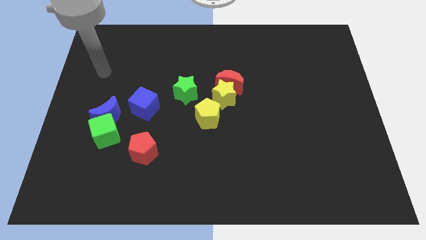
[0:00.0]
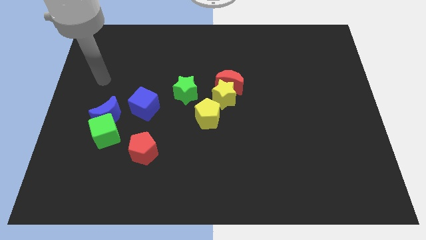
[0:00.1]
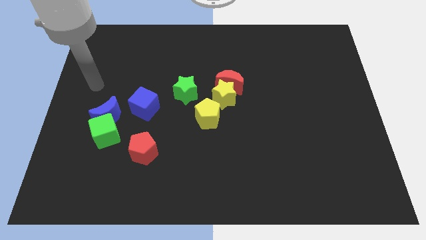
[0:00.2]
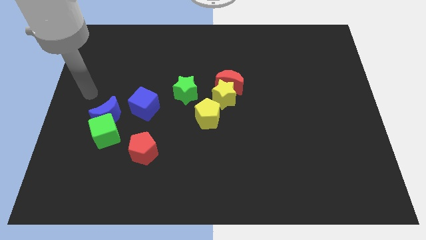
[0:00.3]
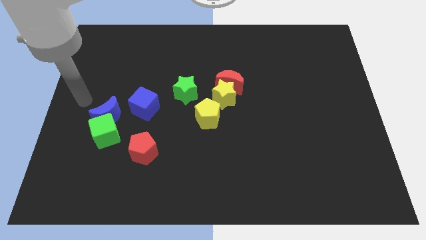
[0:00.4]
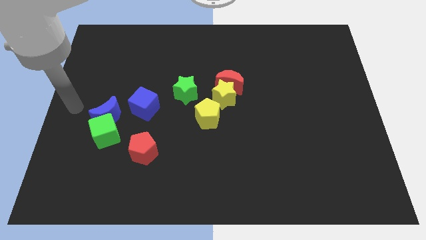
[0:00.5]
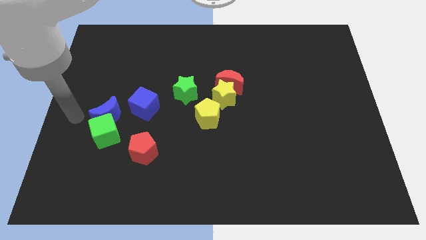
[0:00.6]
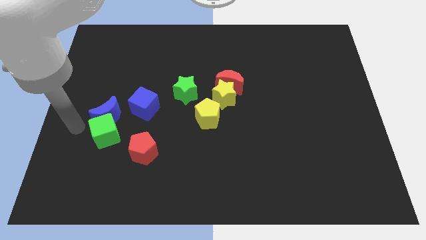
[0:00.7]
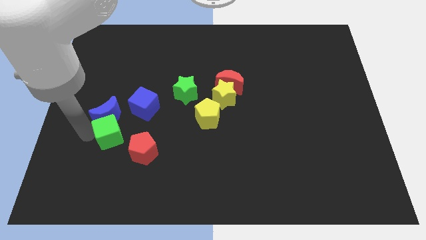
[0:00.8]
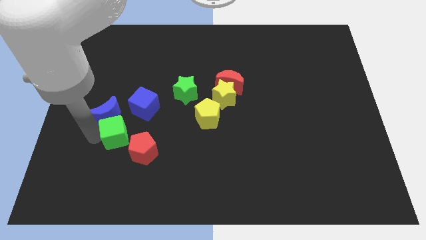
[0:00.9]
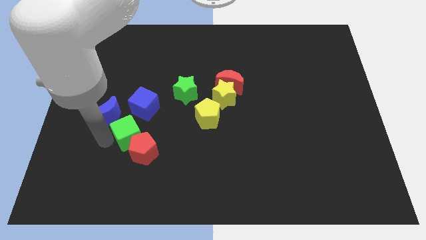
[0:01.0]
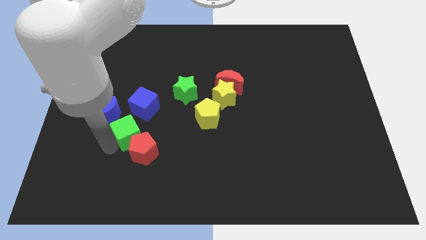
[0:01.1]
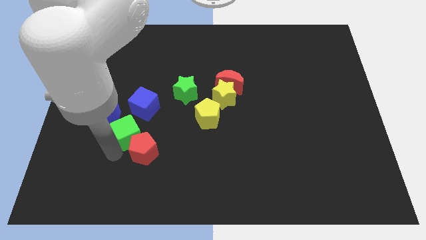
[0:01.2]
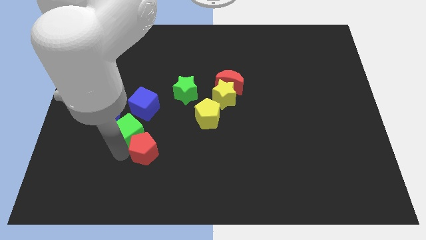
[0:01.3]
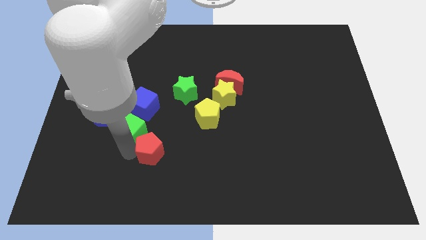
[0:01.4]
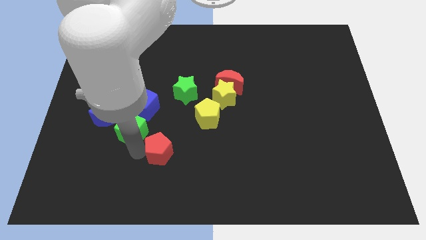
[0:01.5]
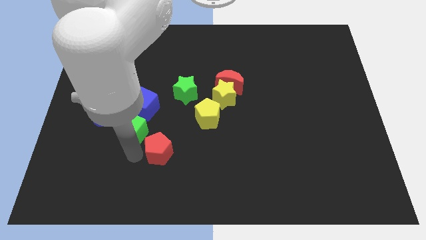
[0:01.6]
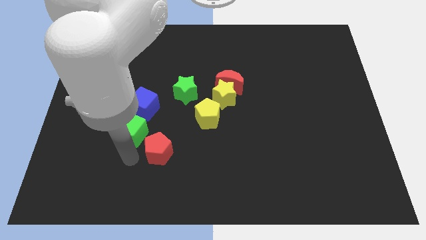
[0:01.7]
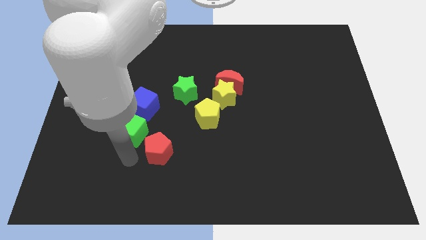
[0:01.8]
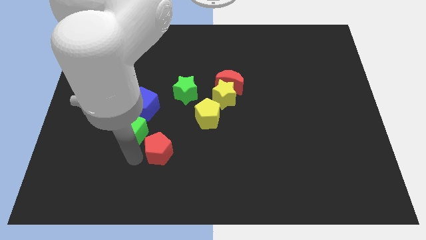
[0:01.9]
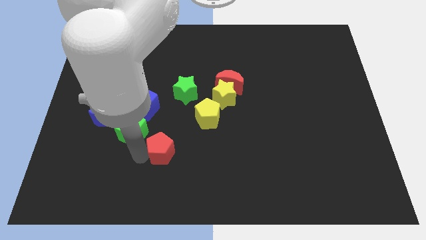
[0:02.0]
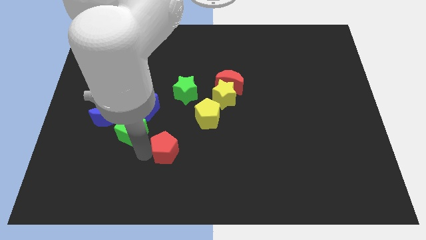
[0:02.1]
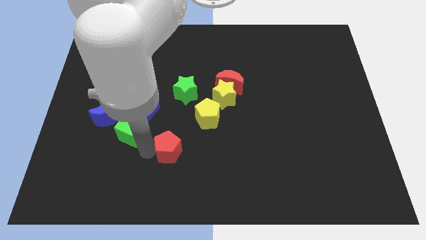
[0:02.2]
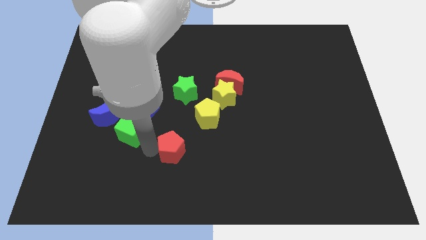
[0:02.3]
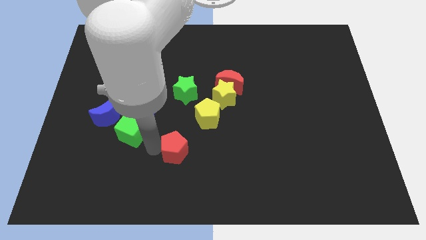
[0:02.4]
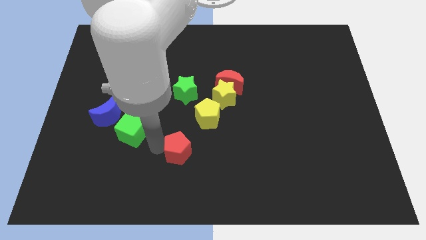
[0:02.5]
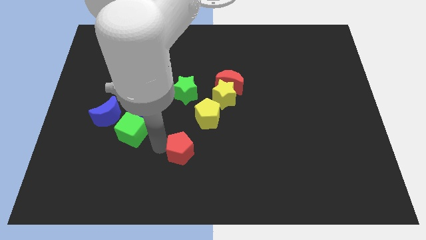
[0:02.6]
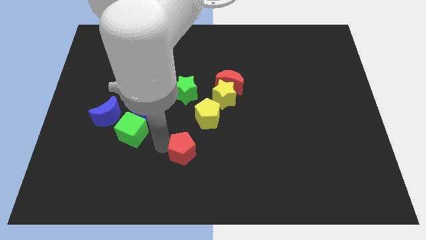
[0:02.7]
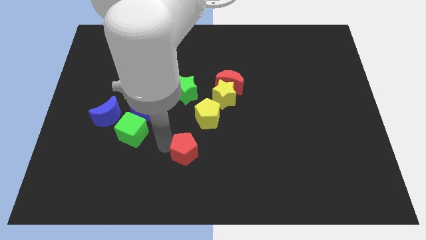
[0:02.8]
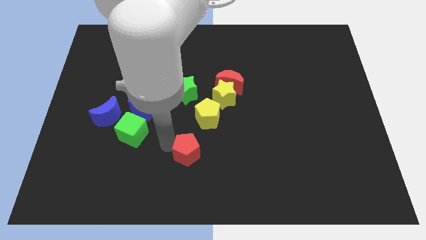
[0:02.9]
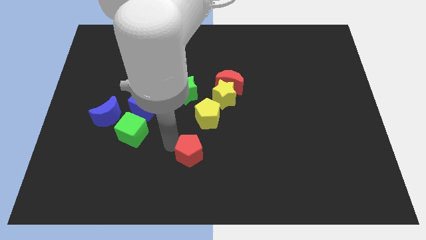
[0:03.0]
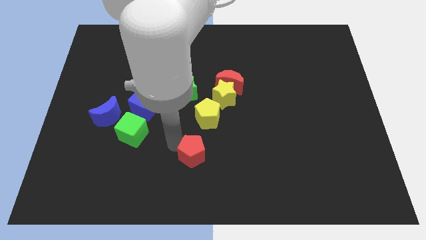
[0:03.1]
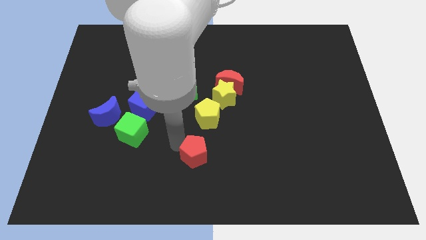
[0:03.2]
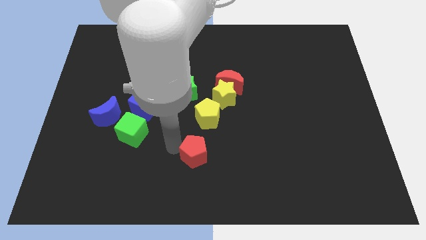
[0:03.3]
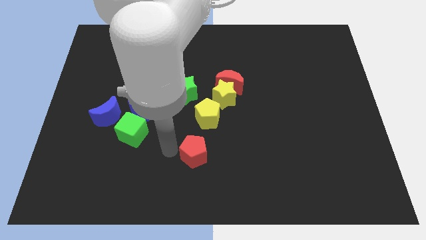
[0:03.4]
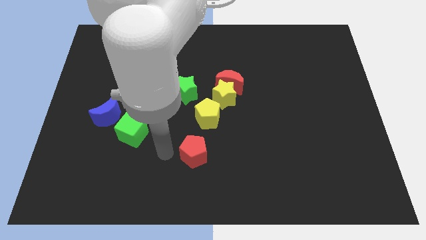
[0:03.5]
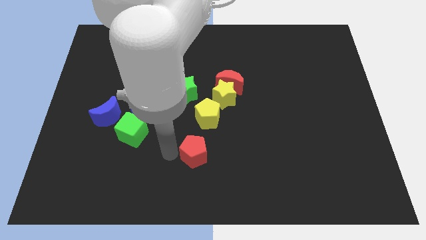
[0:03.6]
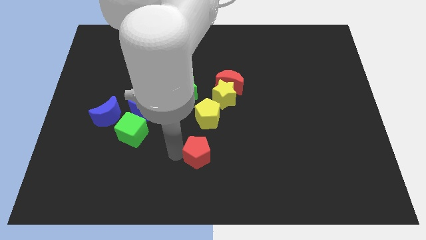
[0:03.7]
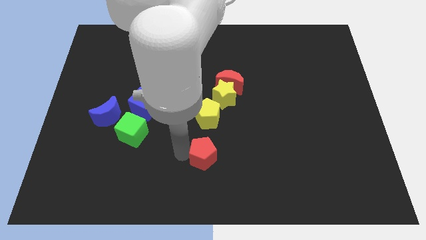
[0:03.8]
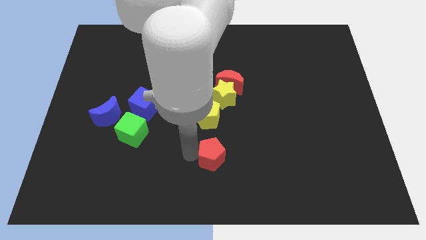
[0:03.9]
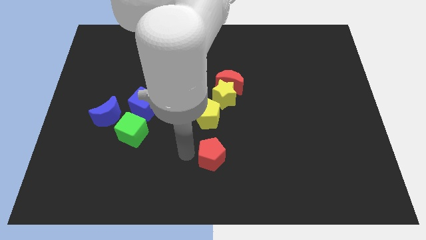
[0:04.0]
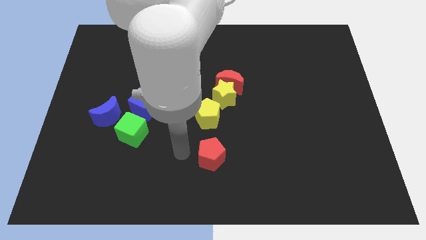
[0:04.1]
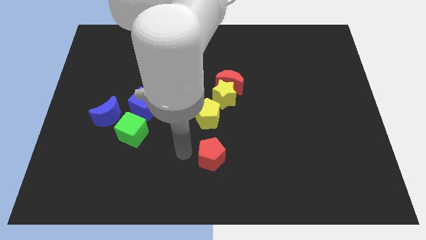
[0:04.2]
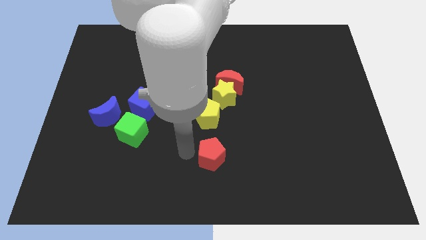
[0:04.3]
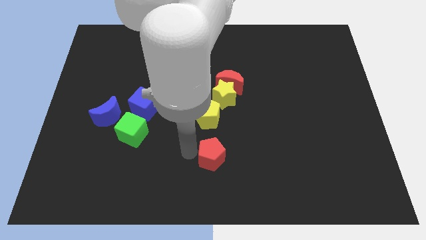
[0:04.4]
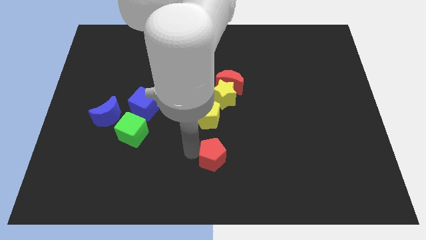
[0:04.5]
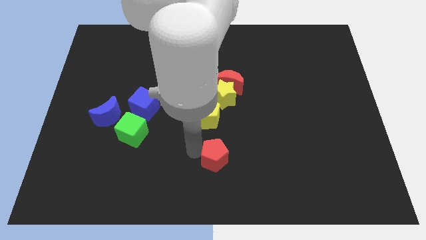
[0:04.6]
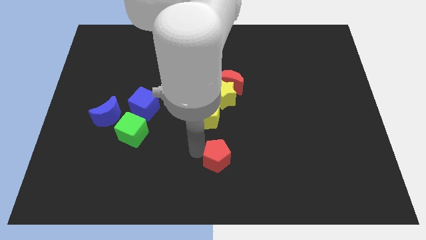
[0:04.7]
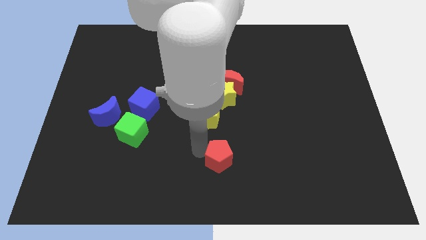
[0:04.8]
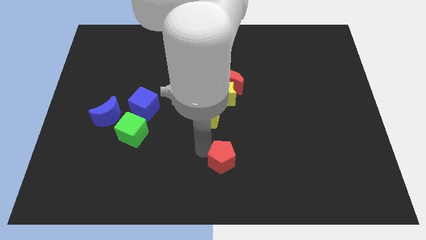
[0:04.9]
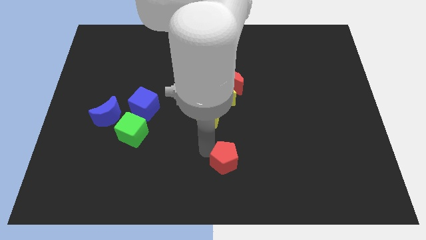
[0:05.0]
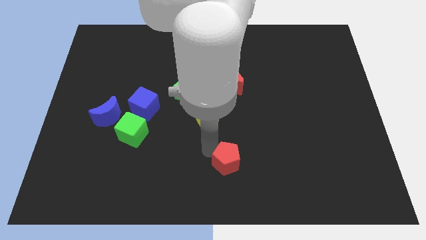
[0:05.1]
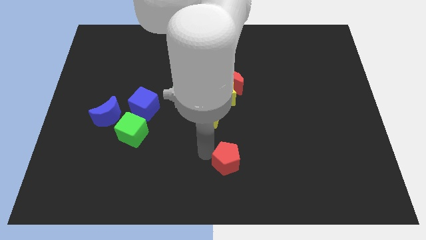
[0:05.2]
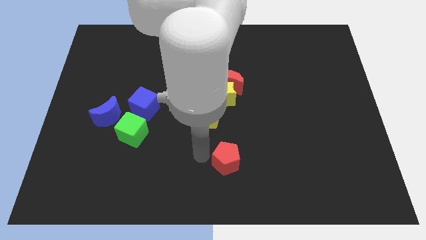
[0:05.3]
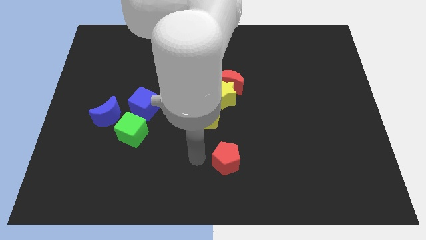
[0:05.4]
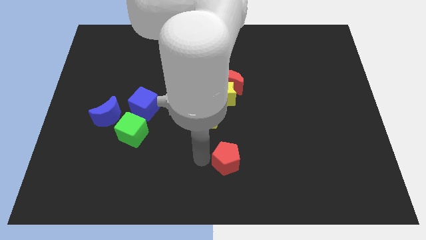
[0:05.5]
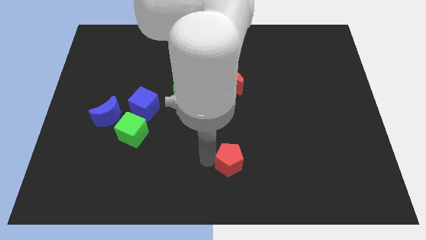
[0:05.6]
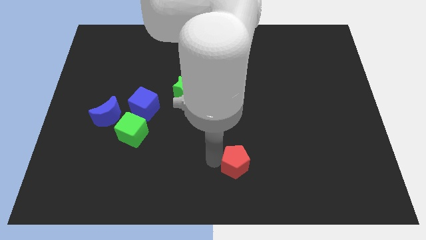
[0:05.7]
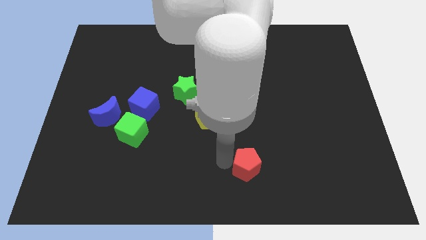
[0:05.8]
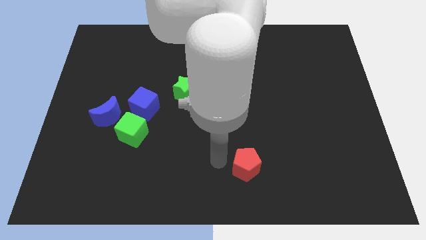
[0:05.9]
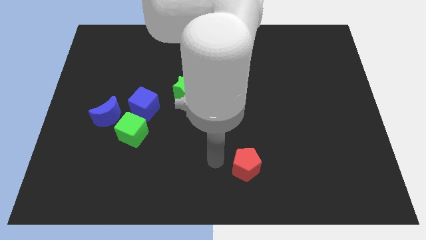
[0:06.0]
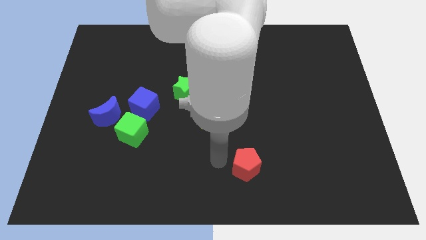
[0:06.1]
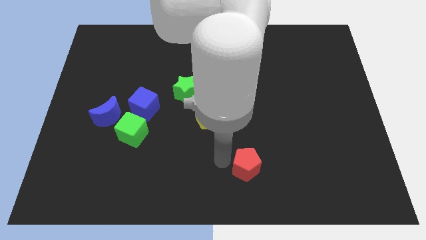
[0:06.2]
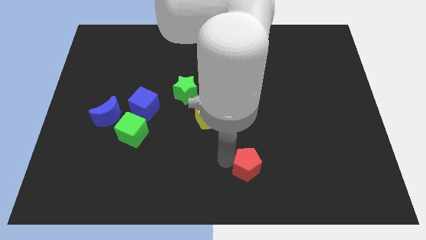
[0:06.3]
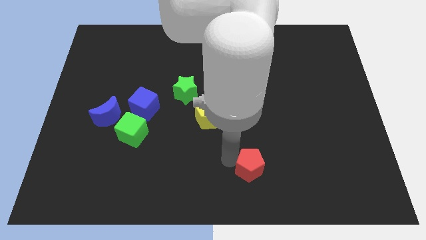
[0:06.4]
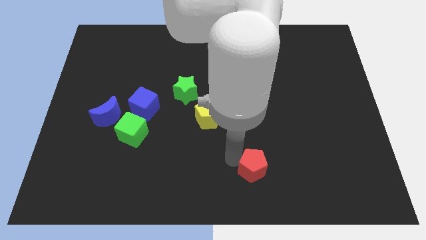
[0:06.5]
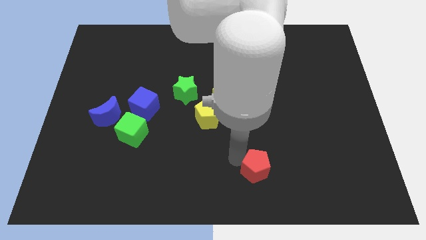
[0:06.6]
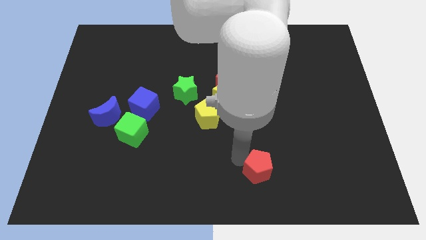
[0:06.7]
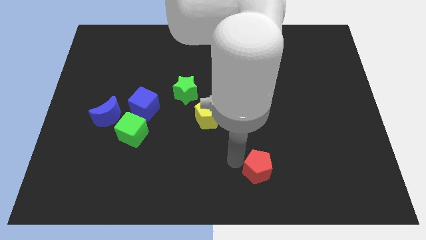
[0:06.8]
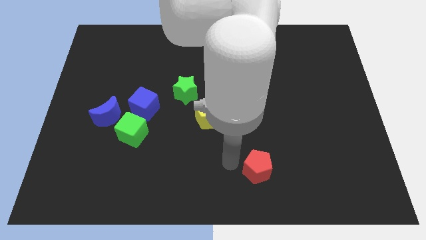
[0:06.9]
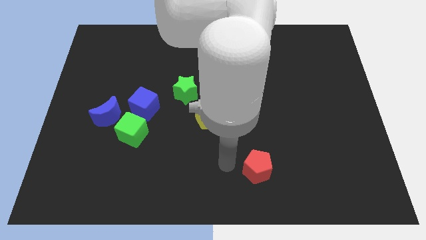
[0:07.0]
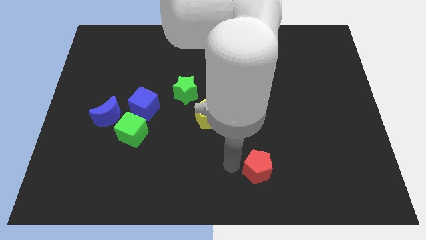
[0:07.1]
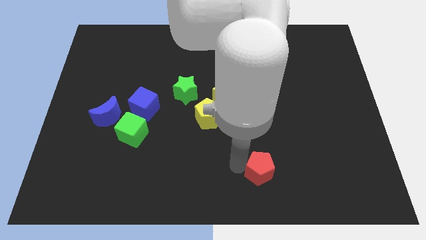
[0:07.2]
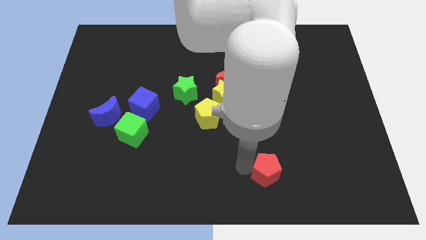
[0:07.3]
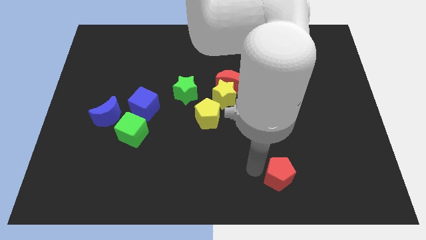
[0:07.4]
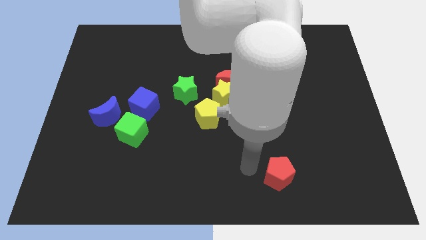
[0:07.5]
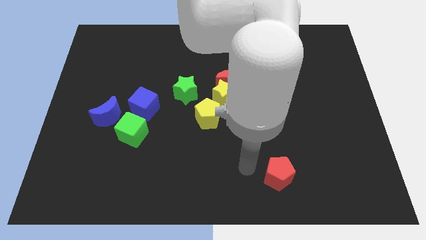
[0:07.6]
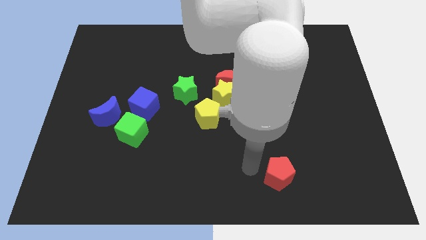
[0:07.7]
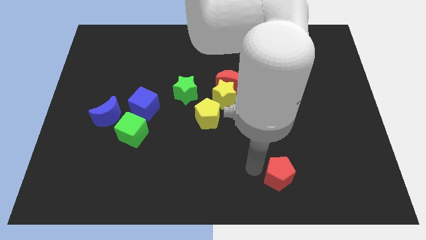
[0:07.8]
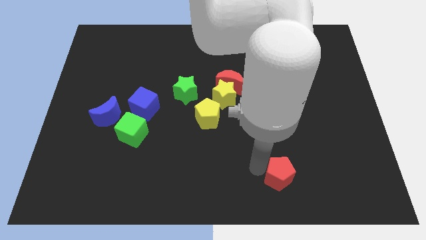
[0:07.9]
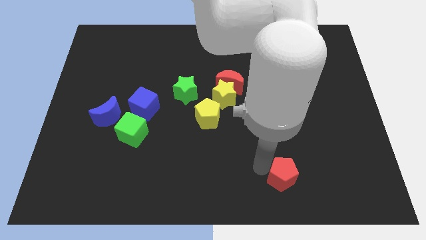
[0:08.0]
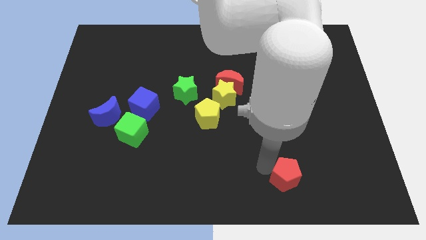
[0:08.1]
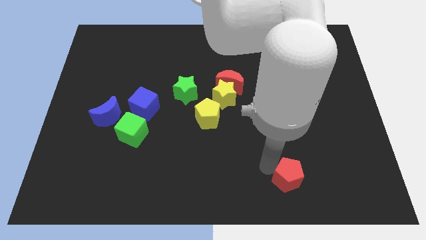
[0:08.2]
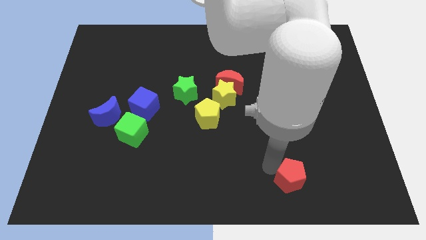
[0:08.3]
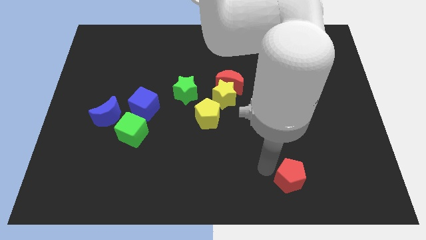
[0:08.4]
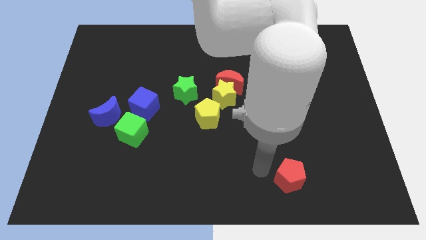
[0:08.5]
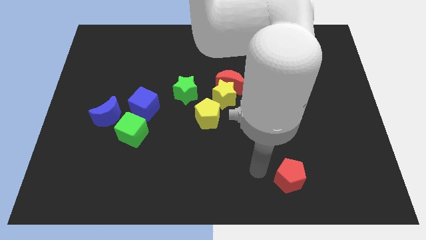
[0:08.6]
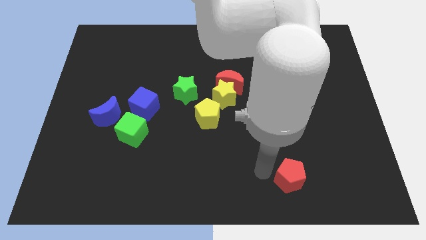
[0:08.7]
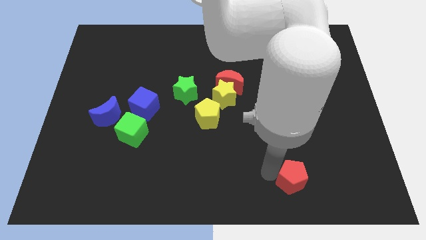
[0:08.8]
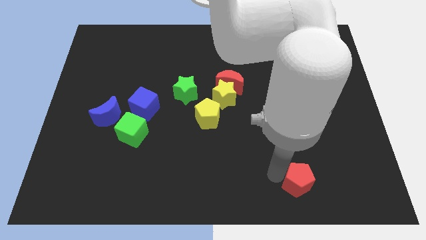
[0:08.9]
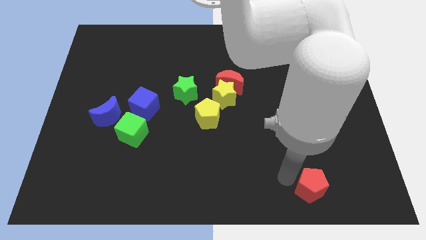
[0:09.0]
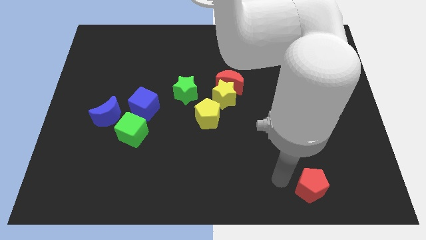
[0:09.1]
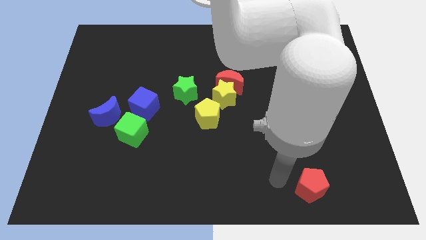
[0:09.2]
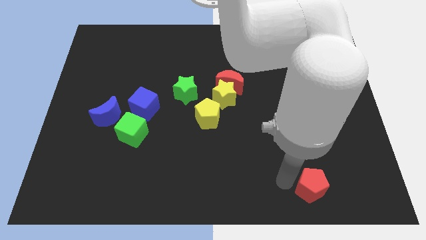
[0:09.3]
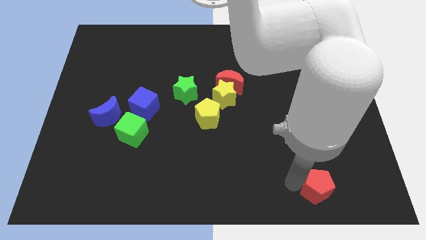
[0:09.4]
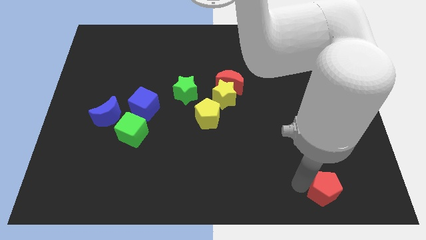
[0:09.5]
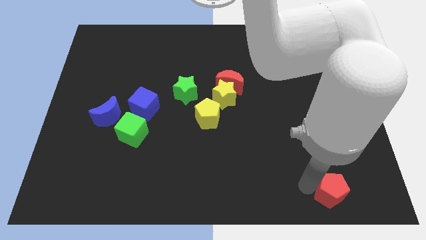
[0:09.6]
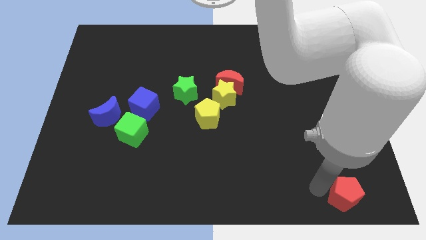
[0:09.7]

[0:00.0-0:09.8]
push the red pentagon to the bottom right of the board
